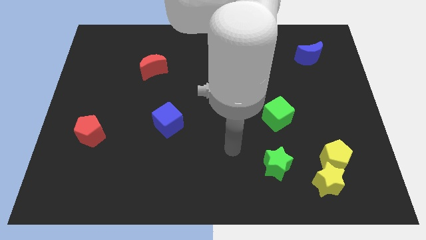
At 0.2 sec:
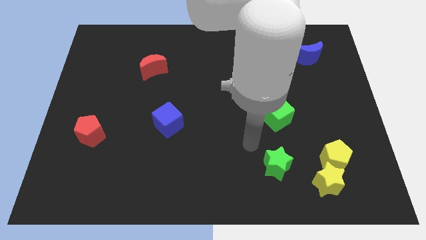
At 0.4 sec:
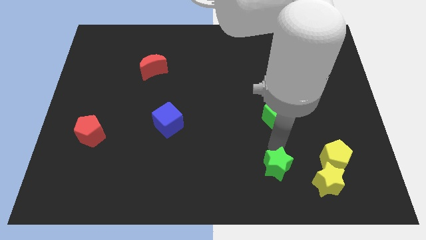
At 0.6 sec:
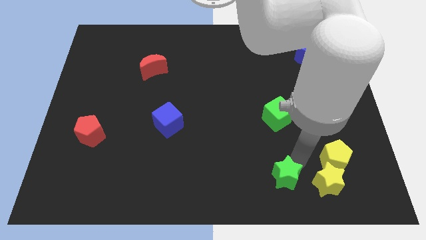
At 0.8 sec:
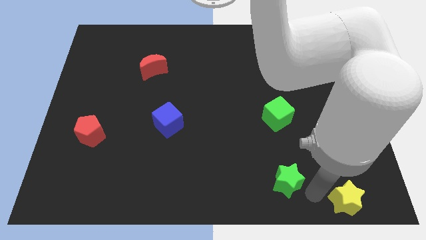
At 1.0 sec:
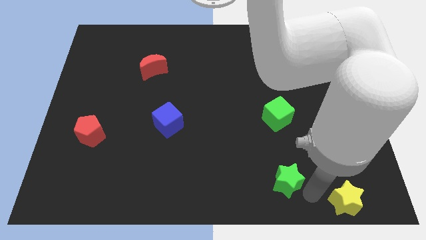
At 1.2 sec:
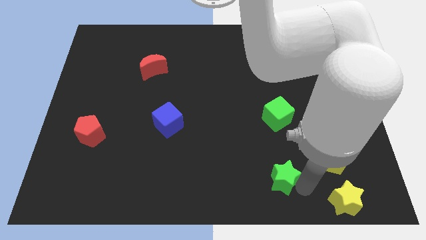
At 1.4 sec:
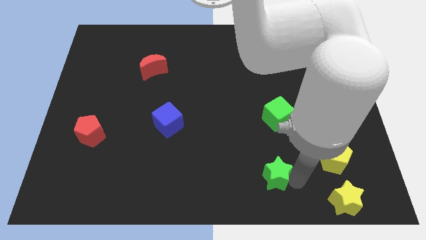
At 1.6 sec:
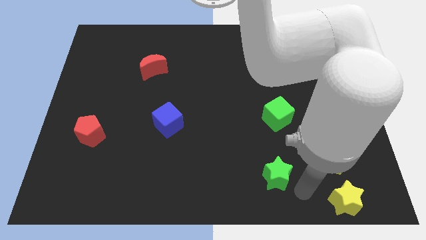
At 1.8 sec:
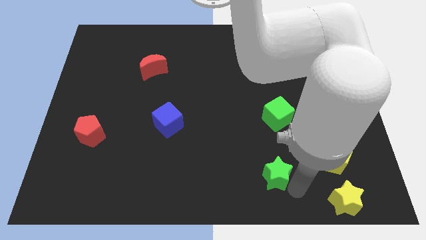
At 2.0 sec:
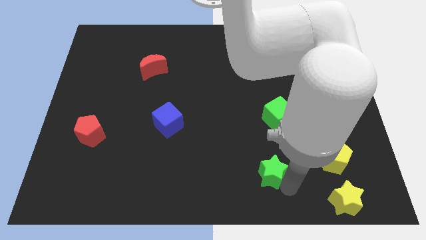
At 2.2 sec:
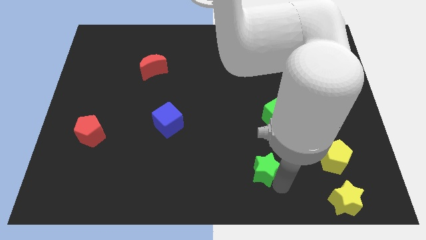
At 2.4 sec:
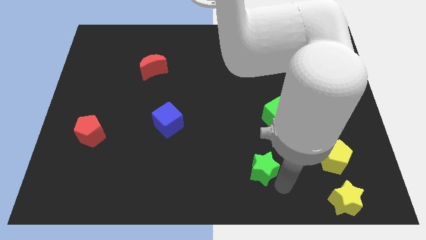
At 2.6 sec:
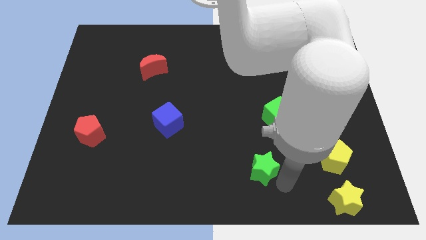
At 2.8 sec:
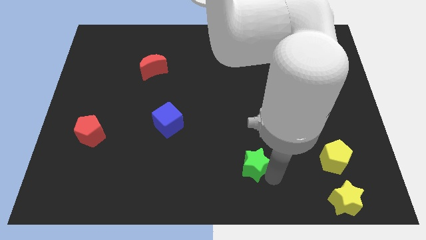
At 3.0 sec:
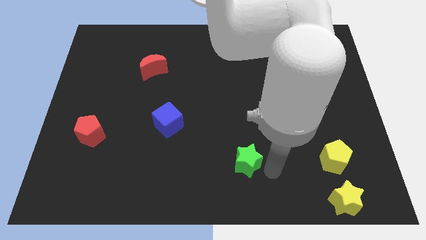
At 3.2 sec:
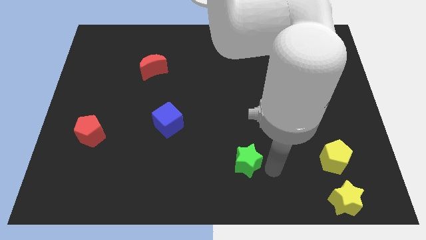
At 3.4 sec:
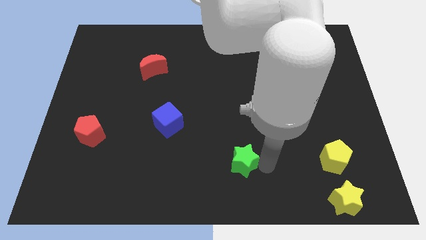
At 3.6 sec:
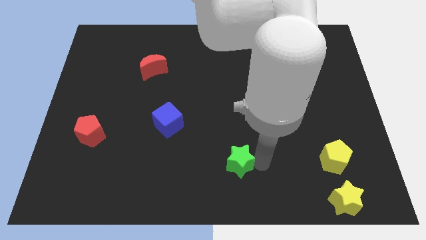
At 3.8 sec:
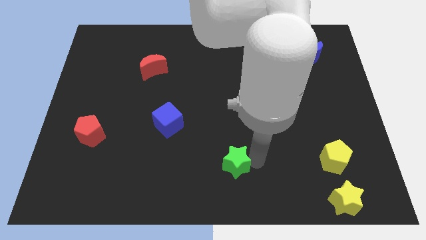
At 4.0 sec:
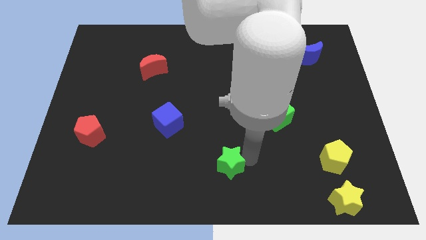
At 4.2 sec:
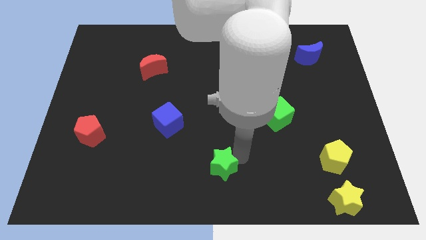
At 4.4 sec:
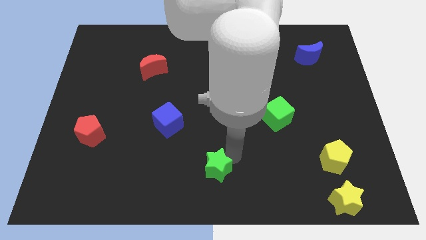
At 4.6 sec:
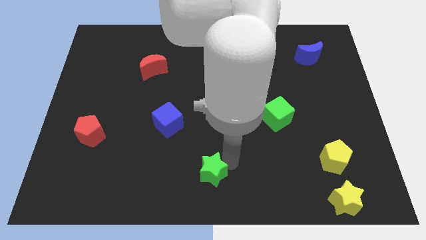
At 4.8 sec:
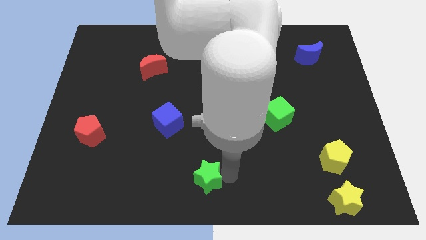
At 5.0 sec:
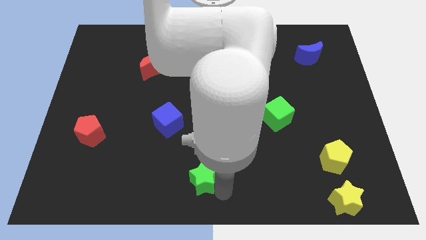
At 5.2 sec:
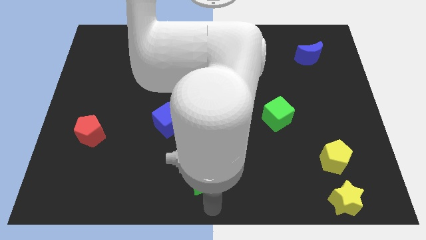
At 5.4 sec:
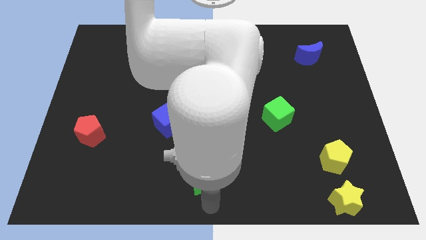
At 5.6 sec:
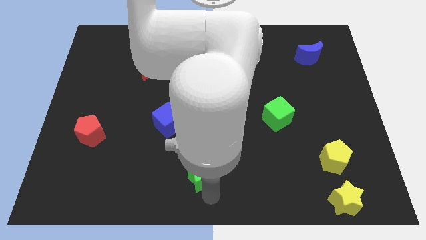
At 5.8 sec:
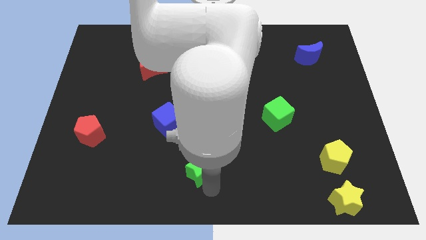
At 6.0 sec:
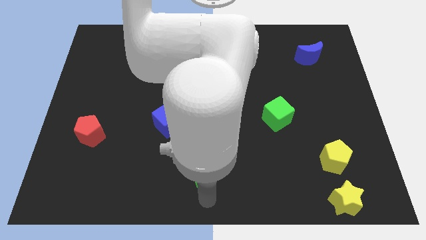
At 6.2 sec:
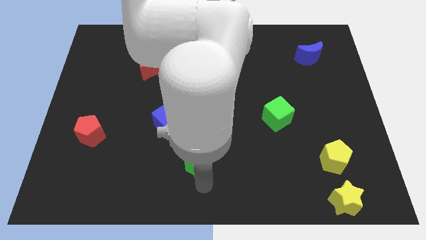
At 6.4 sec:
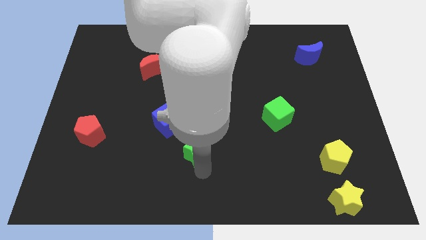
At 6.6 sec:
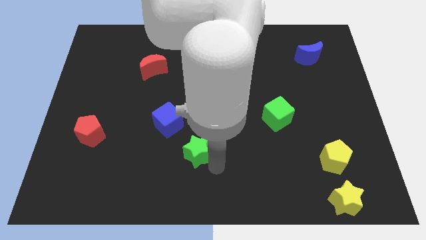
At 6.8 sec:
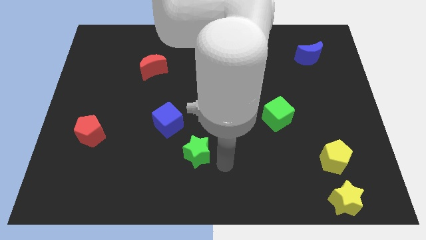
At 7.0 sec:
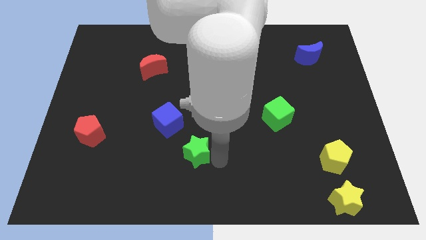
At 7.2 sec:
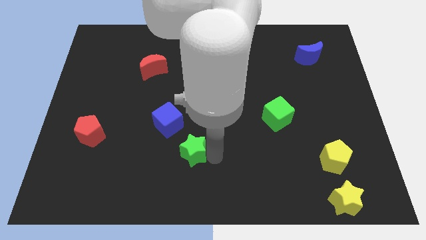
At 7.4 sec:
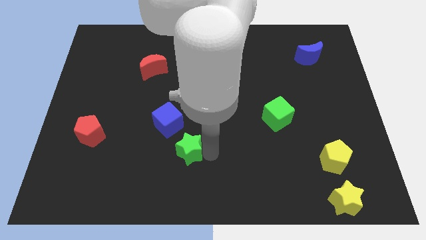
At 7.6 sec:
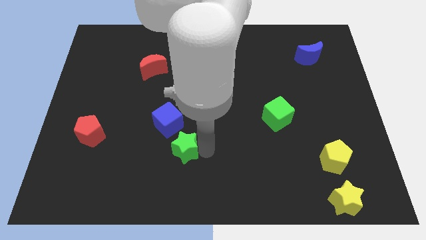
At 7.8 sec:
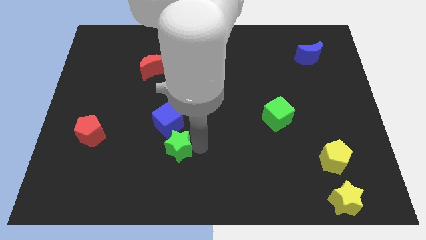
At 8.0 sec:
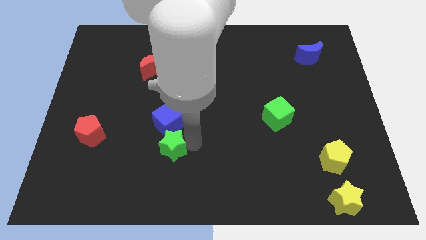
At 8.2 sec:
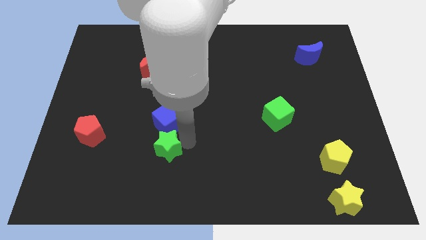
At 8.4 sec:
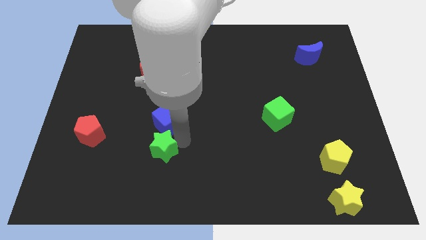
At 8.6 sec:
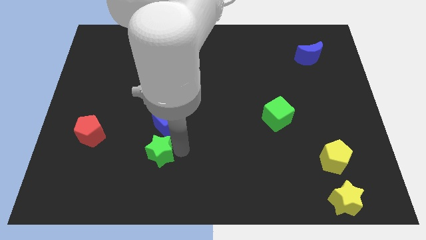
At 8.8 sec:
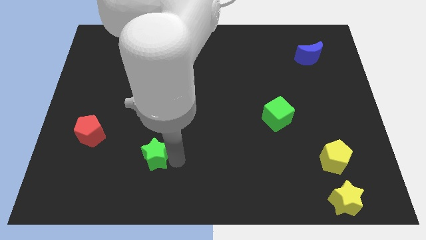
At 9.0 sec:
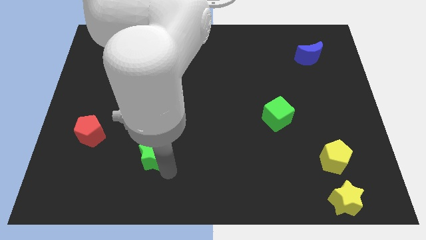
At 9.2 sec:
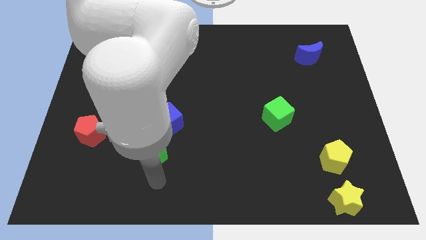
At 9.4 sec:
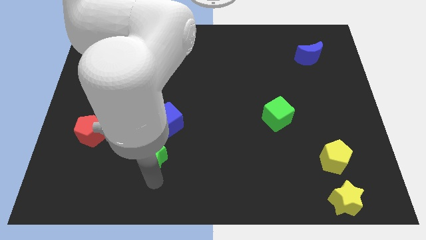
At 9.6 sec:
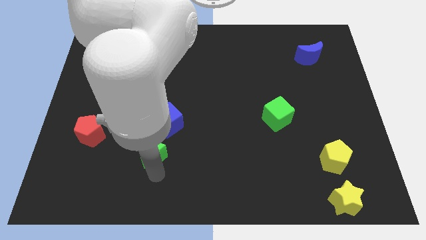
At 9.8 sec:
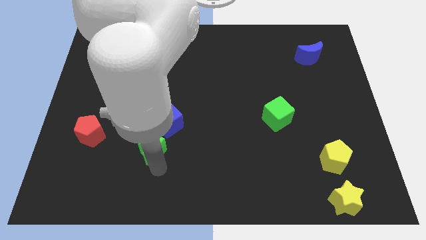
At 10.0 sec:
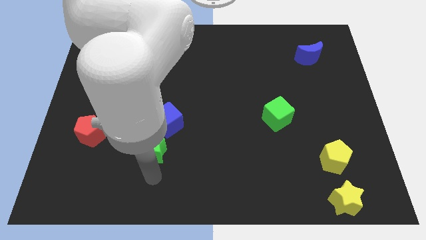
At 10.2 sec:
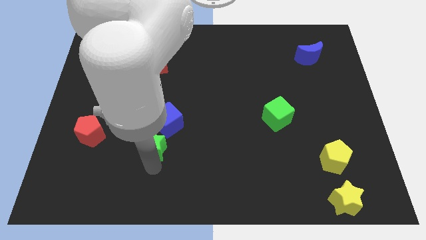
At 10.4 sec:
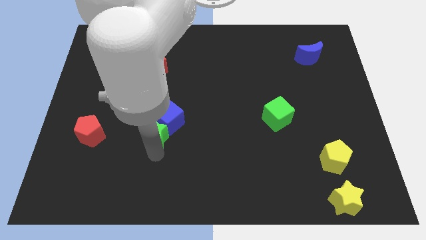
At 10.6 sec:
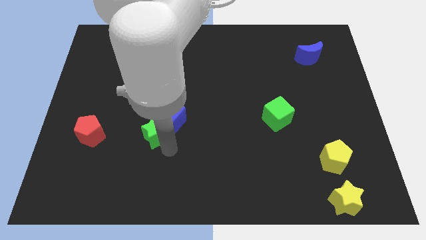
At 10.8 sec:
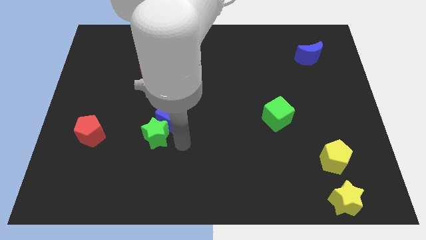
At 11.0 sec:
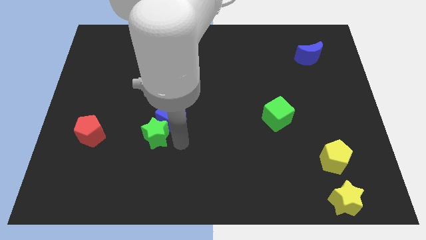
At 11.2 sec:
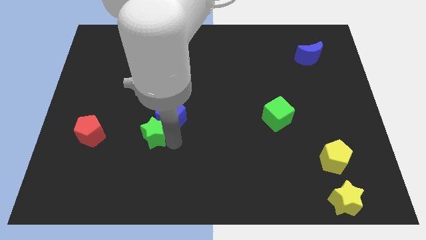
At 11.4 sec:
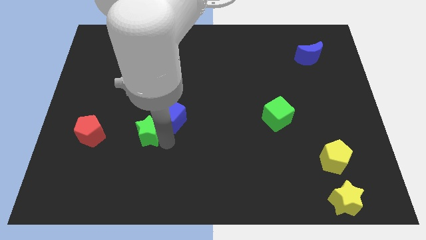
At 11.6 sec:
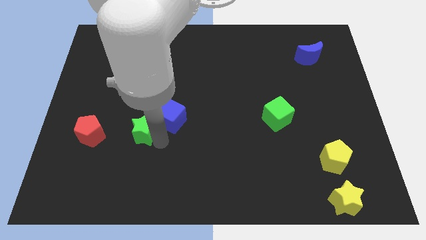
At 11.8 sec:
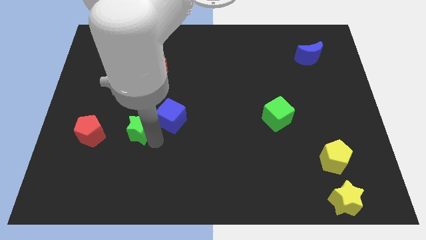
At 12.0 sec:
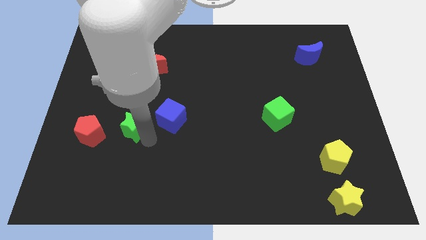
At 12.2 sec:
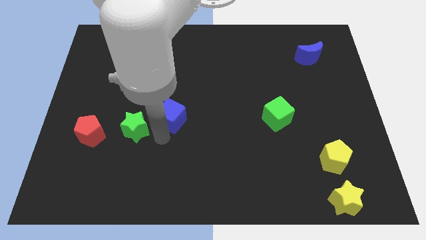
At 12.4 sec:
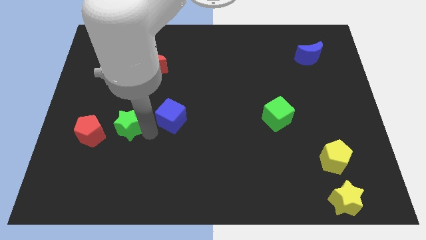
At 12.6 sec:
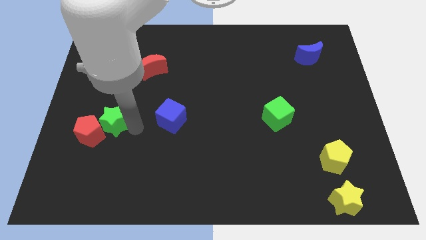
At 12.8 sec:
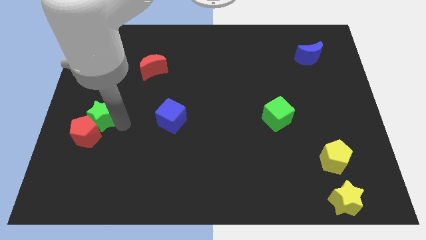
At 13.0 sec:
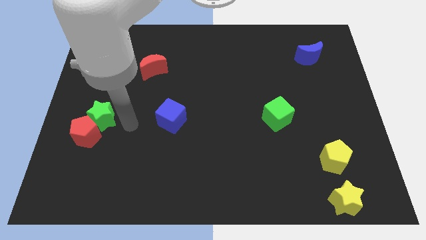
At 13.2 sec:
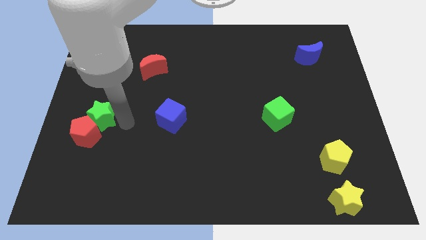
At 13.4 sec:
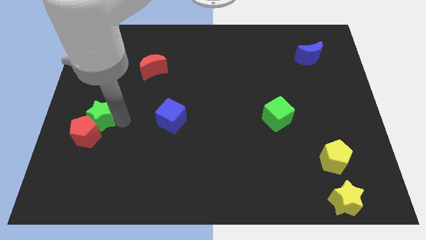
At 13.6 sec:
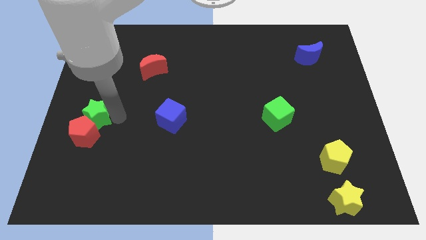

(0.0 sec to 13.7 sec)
slide the green star to the left side of the board

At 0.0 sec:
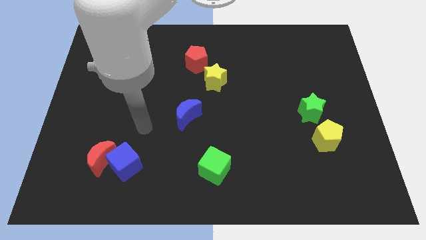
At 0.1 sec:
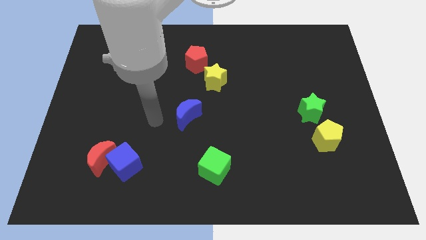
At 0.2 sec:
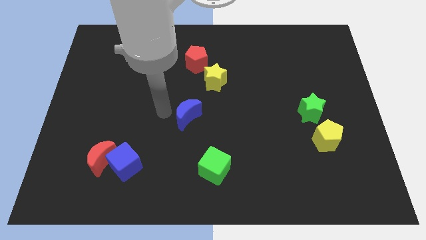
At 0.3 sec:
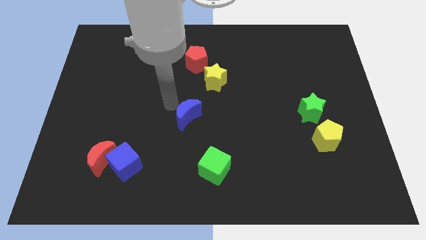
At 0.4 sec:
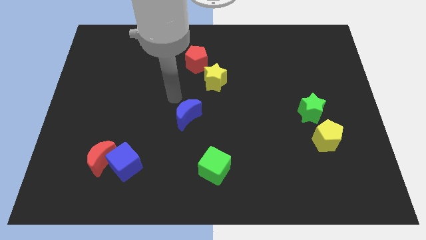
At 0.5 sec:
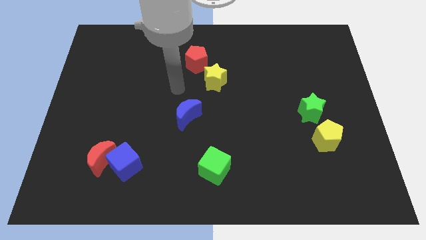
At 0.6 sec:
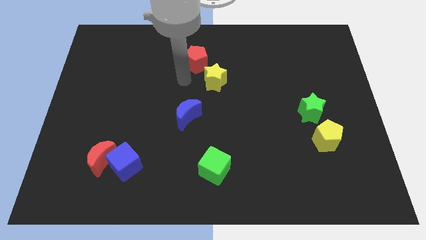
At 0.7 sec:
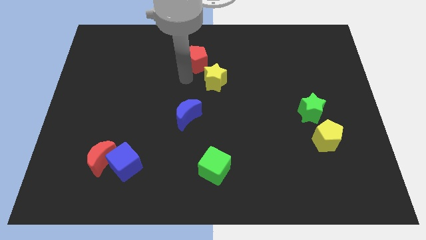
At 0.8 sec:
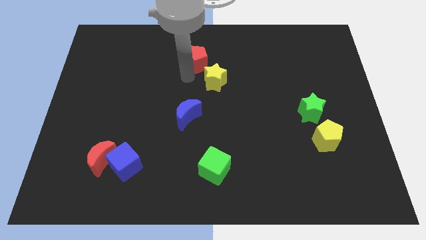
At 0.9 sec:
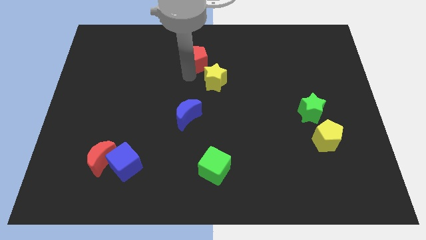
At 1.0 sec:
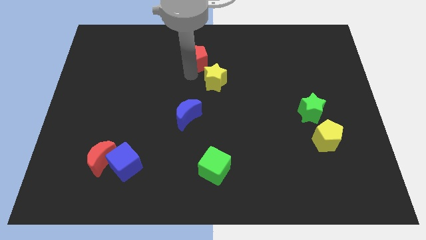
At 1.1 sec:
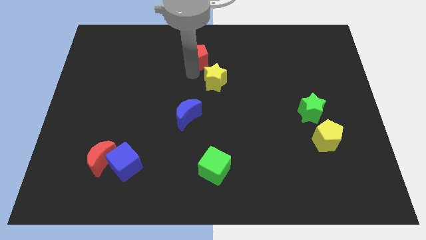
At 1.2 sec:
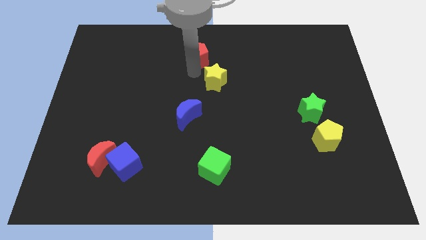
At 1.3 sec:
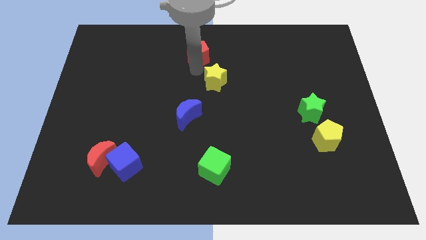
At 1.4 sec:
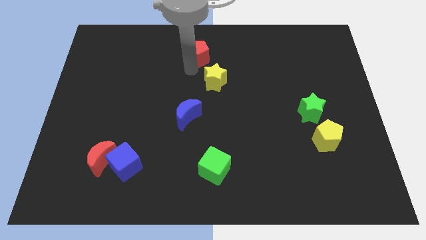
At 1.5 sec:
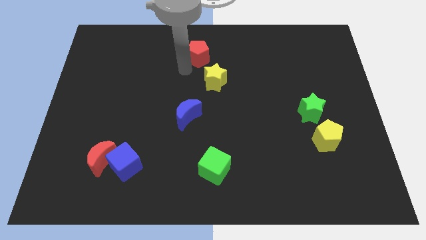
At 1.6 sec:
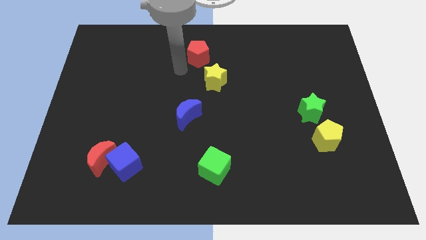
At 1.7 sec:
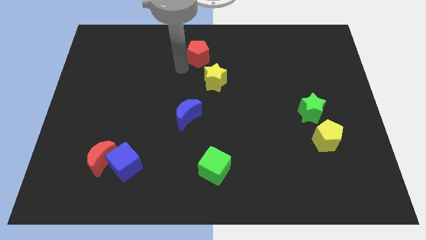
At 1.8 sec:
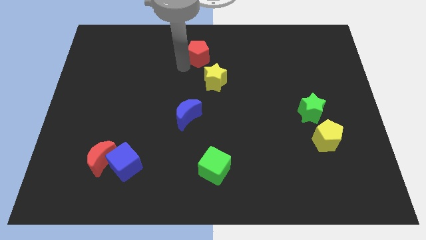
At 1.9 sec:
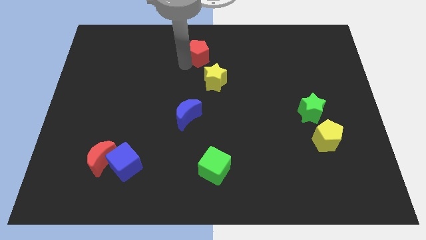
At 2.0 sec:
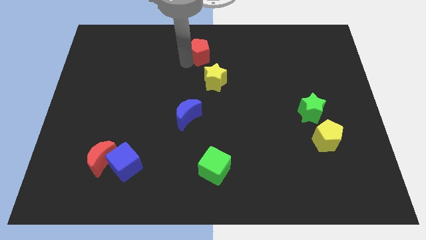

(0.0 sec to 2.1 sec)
push the red pentagon to the towards your base
